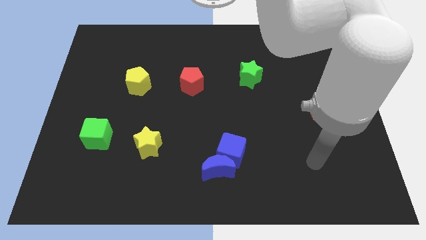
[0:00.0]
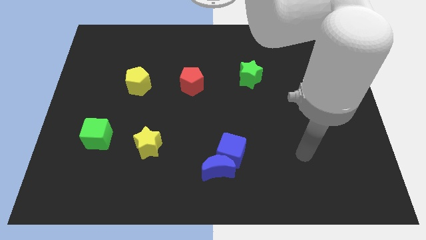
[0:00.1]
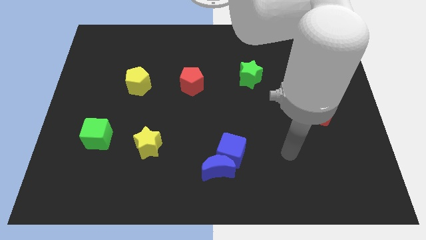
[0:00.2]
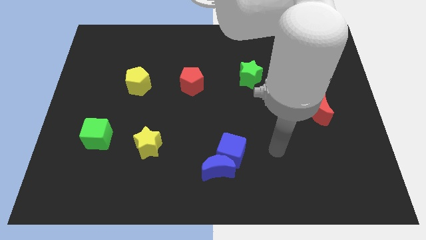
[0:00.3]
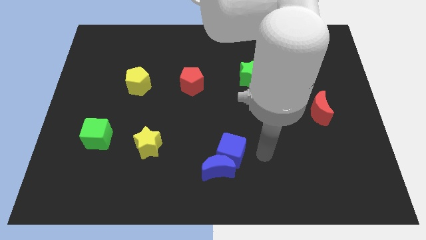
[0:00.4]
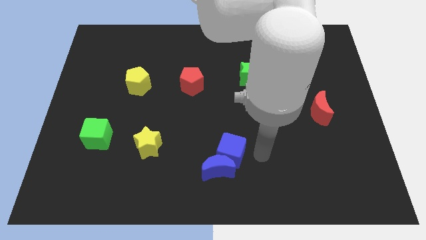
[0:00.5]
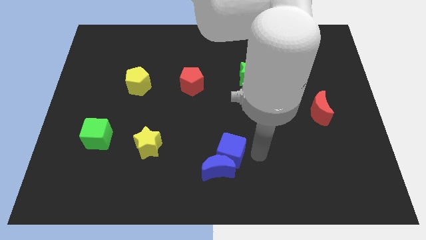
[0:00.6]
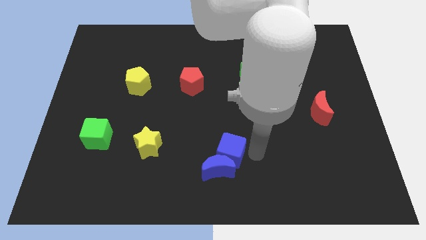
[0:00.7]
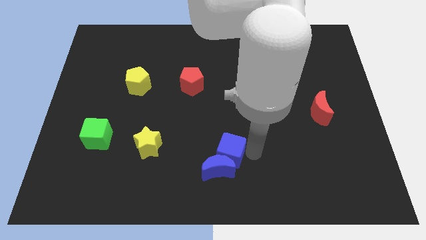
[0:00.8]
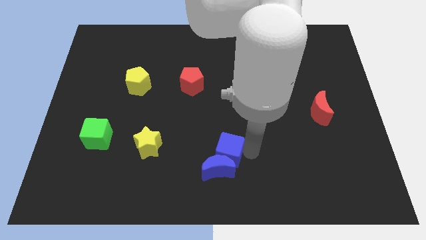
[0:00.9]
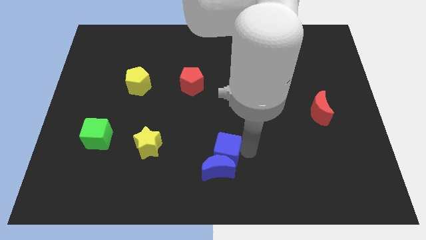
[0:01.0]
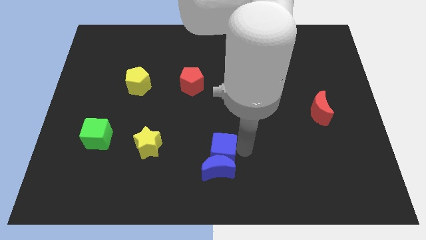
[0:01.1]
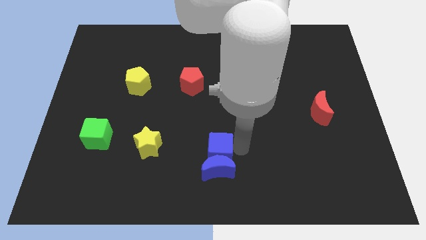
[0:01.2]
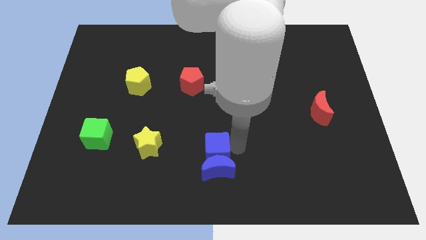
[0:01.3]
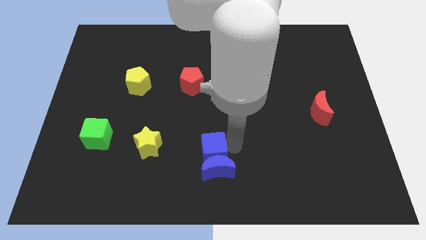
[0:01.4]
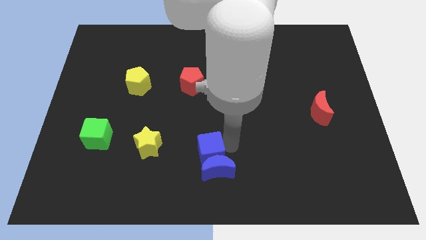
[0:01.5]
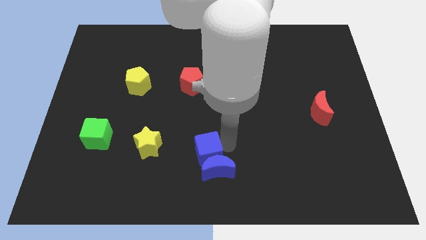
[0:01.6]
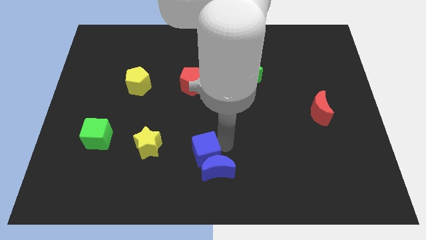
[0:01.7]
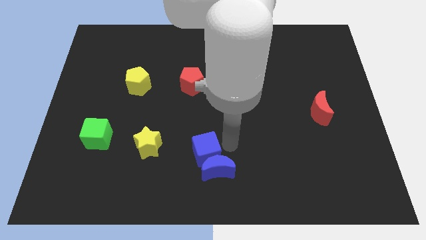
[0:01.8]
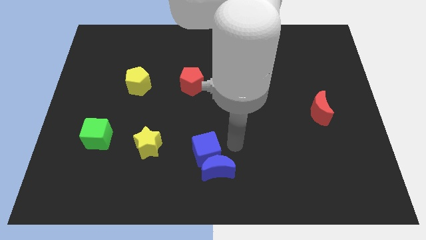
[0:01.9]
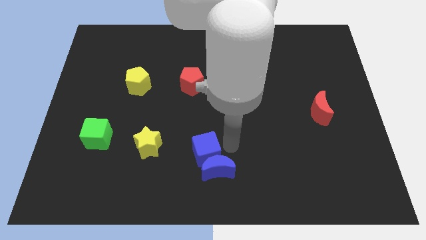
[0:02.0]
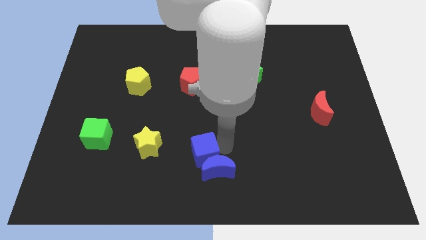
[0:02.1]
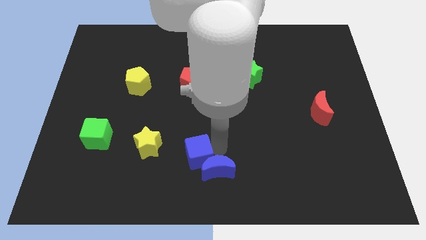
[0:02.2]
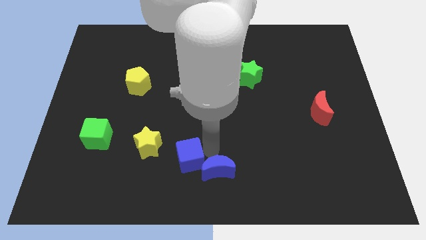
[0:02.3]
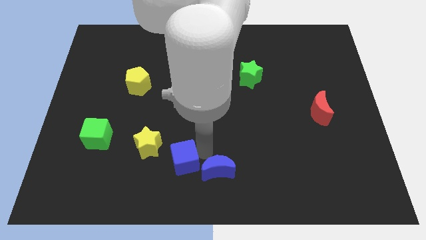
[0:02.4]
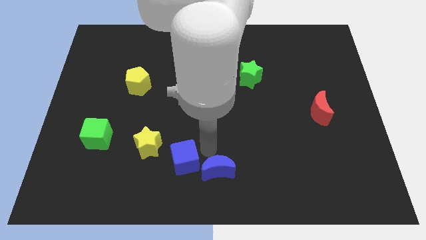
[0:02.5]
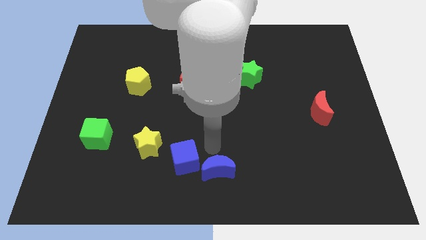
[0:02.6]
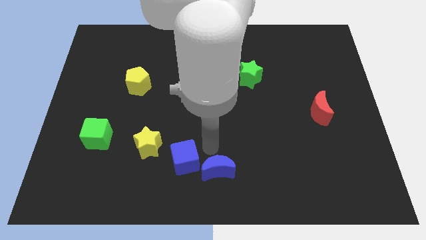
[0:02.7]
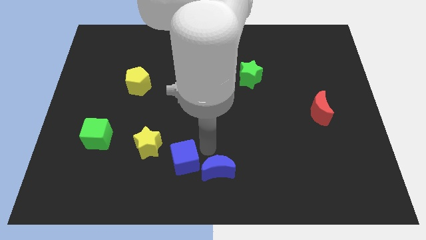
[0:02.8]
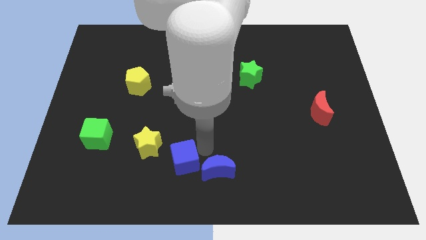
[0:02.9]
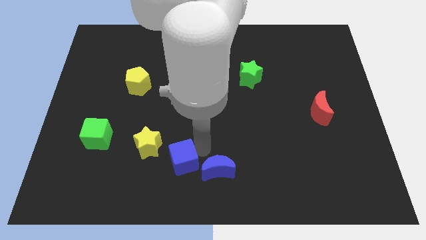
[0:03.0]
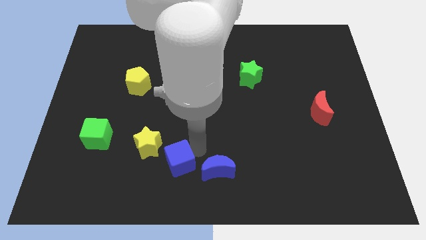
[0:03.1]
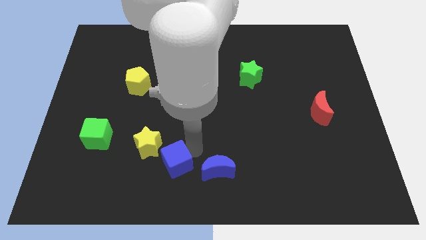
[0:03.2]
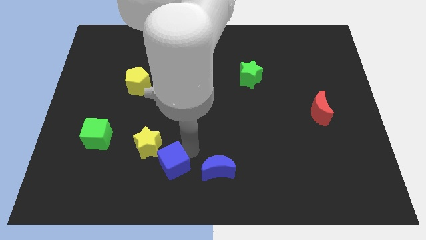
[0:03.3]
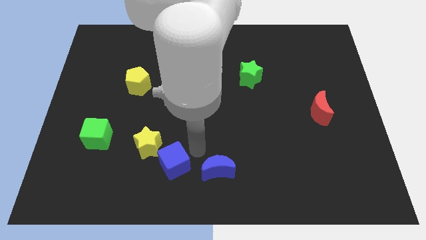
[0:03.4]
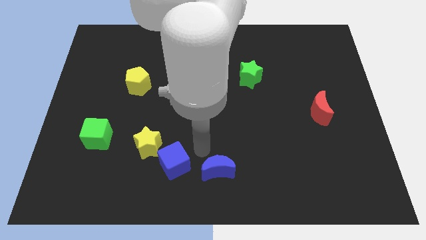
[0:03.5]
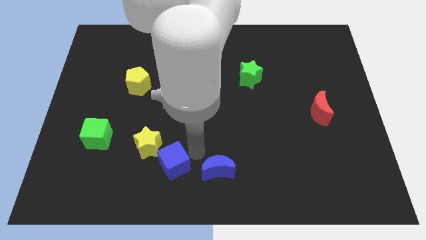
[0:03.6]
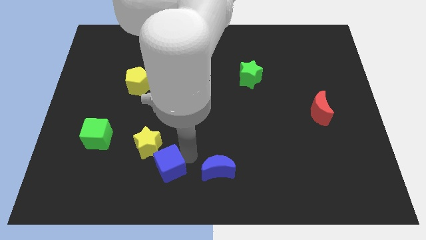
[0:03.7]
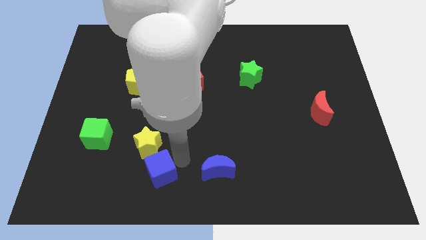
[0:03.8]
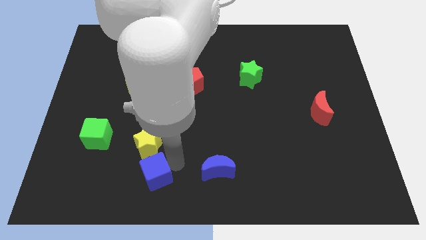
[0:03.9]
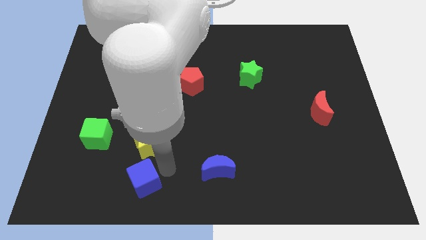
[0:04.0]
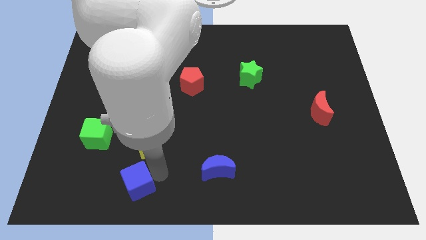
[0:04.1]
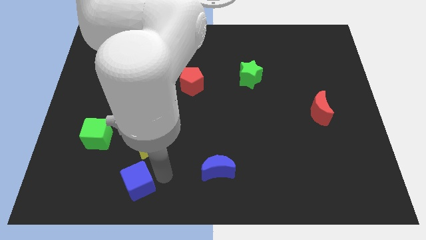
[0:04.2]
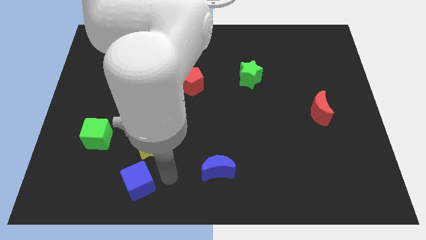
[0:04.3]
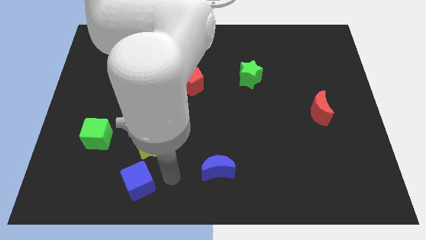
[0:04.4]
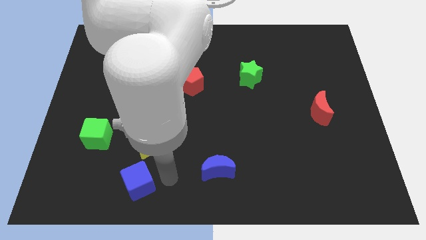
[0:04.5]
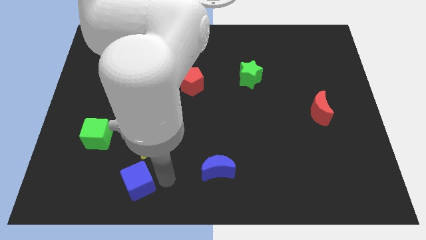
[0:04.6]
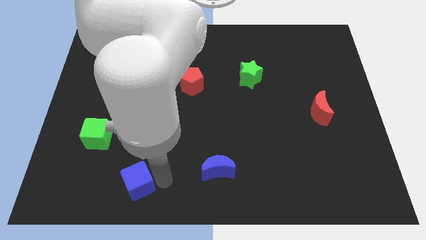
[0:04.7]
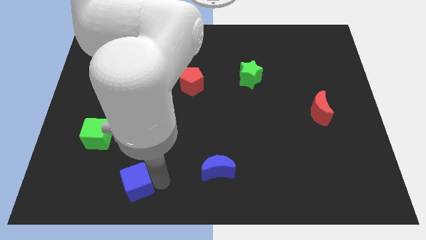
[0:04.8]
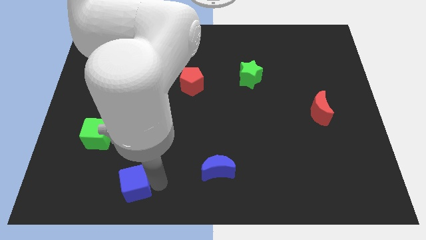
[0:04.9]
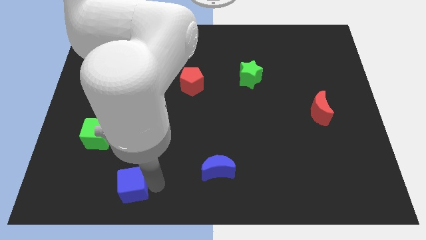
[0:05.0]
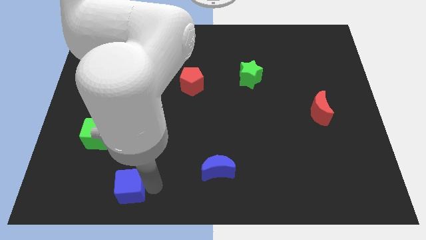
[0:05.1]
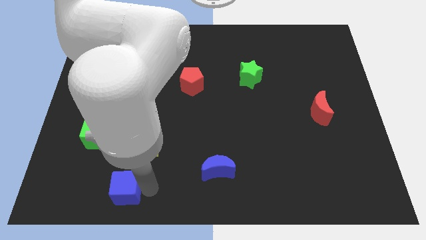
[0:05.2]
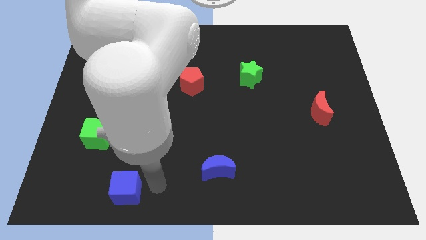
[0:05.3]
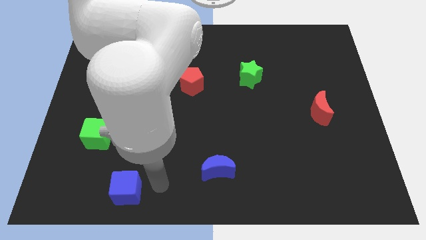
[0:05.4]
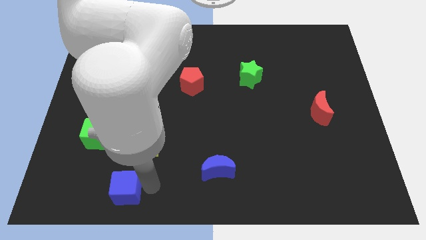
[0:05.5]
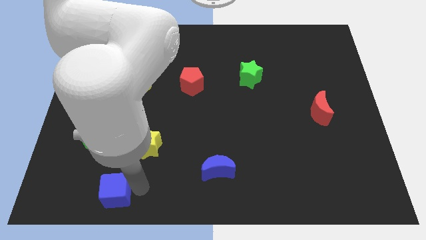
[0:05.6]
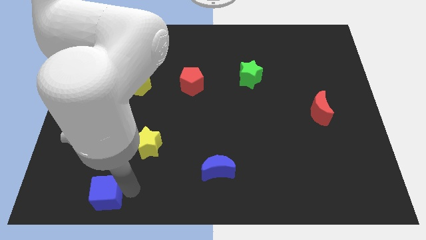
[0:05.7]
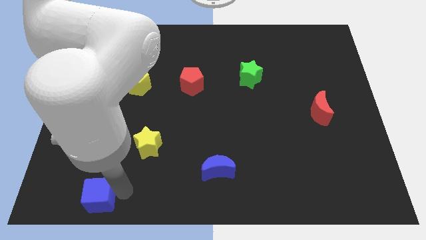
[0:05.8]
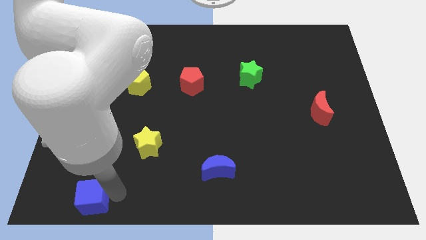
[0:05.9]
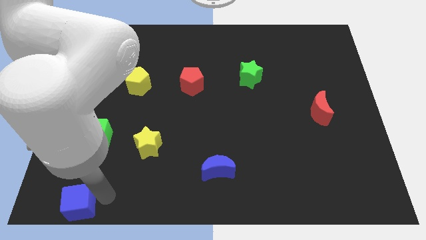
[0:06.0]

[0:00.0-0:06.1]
push the blue cube to the bottom left corner
